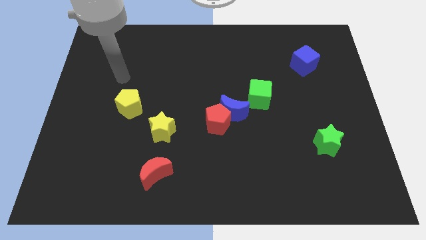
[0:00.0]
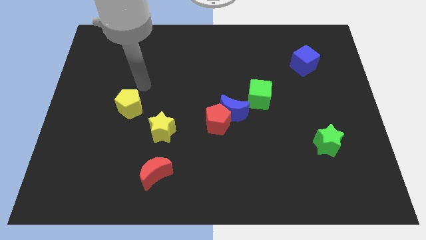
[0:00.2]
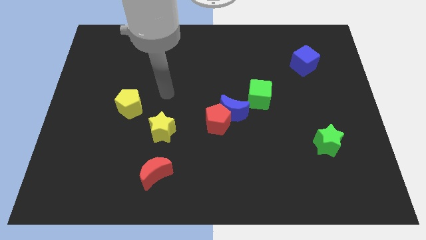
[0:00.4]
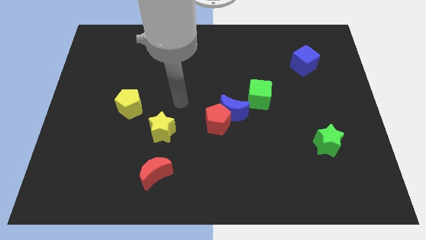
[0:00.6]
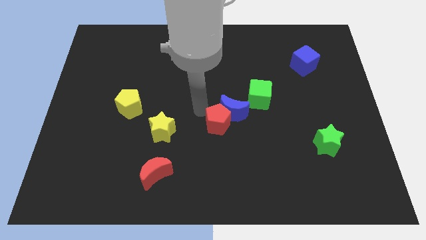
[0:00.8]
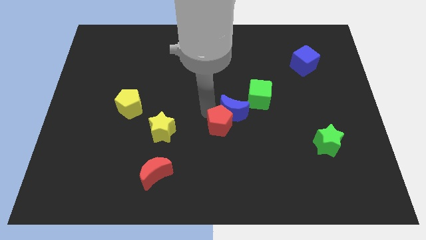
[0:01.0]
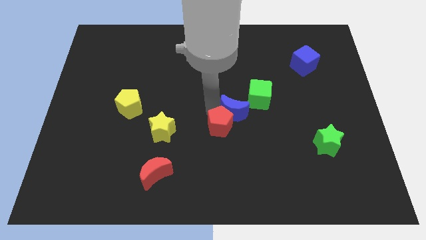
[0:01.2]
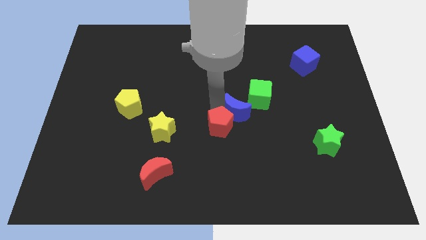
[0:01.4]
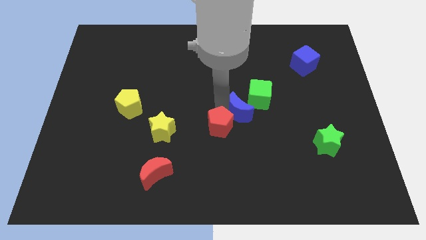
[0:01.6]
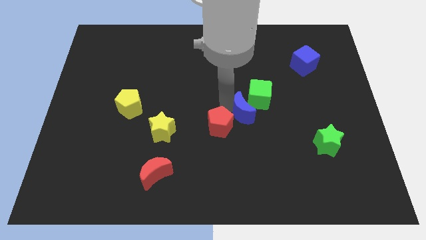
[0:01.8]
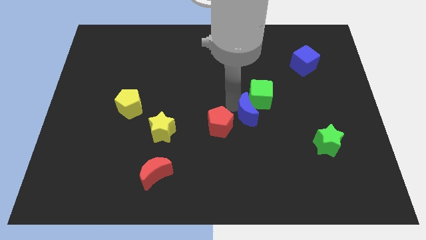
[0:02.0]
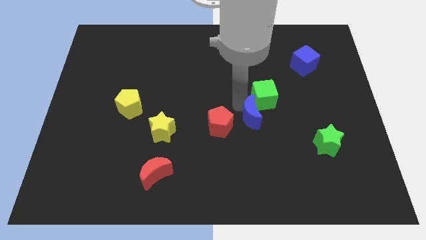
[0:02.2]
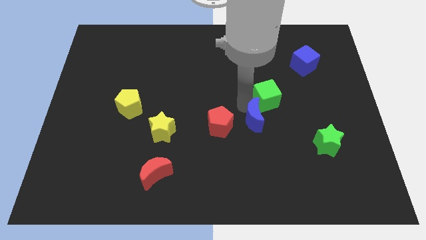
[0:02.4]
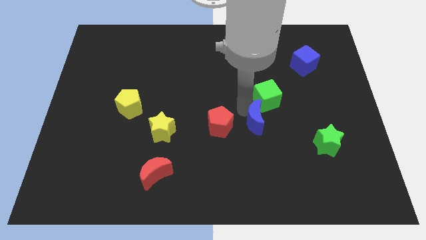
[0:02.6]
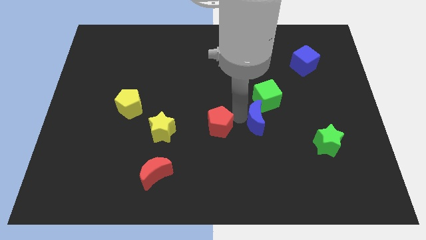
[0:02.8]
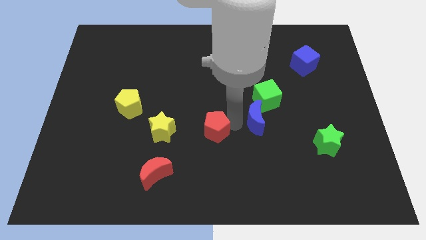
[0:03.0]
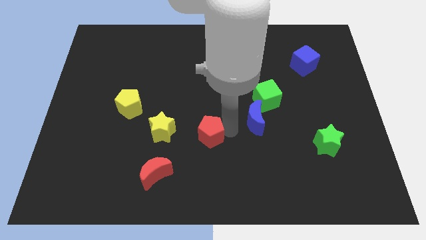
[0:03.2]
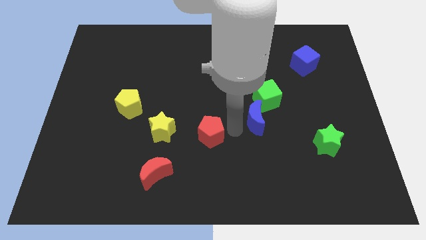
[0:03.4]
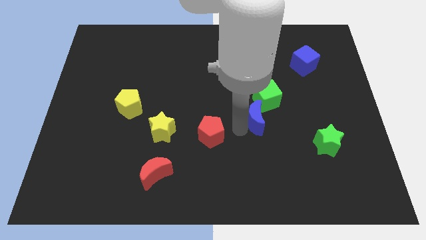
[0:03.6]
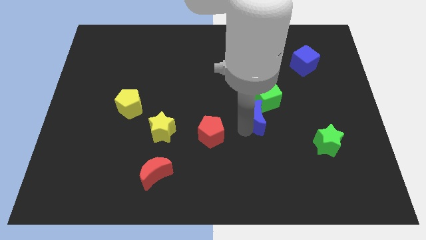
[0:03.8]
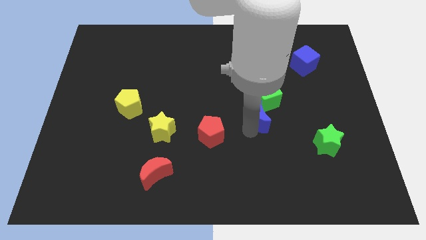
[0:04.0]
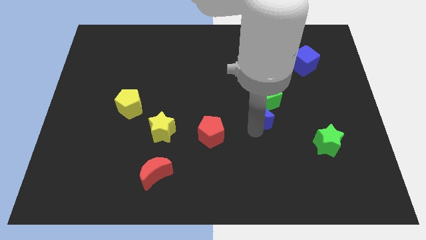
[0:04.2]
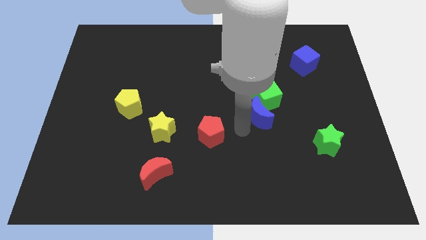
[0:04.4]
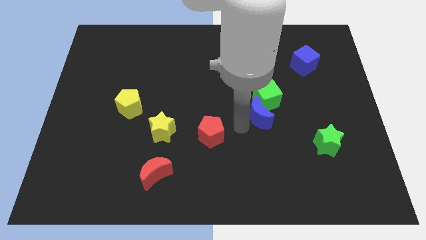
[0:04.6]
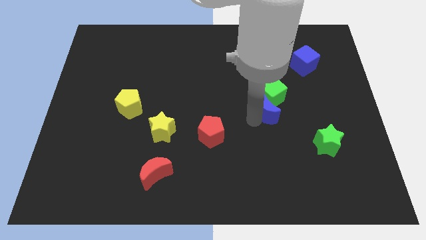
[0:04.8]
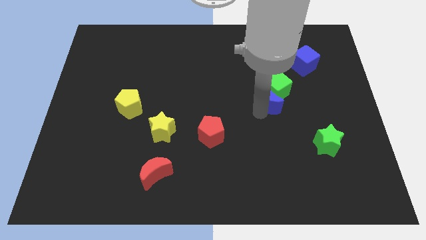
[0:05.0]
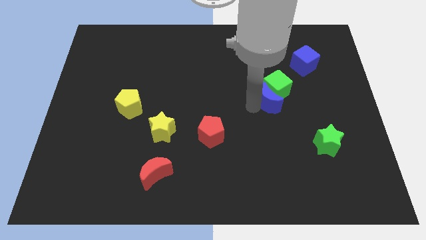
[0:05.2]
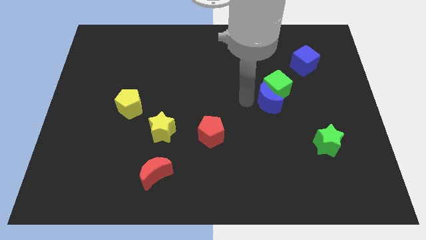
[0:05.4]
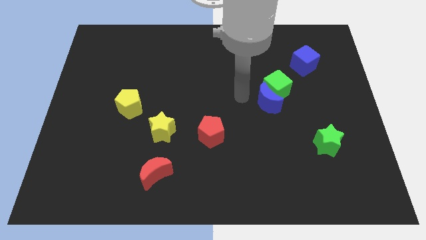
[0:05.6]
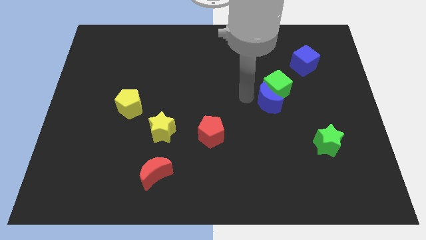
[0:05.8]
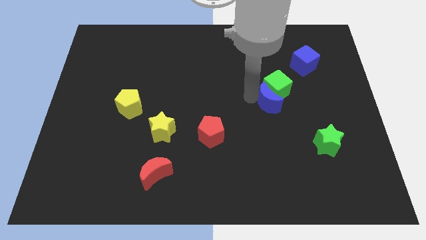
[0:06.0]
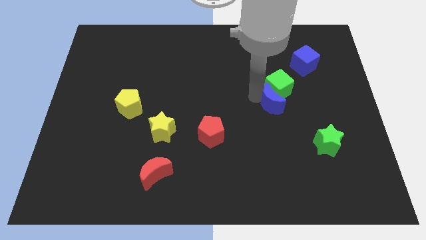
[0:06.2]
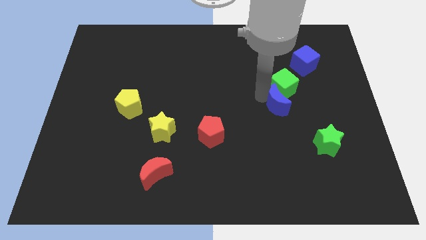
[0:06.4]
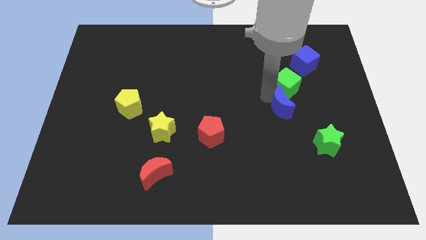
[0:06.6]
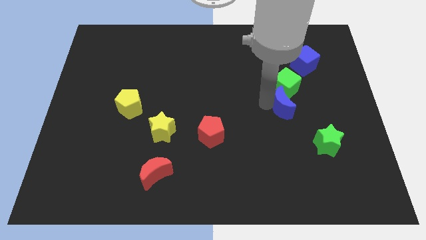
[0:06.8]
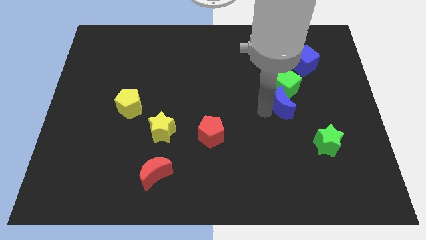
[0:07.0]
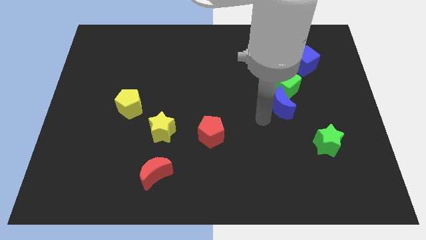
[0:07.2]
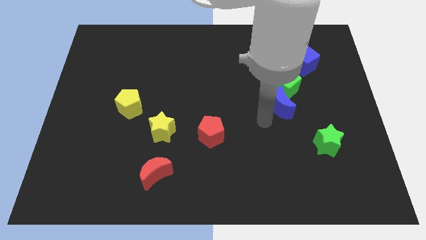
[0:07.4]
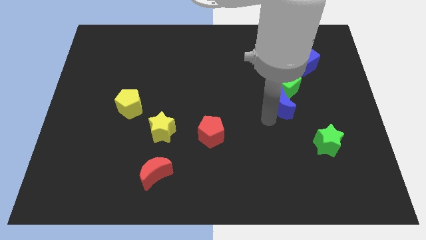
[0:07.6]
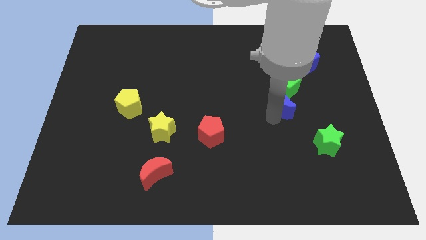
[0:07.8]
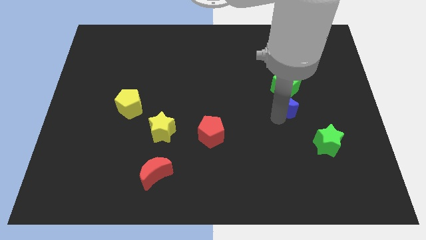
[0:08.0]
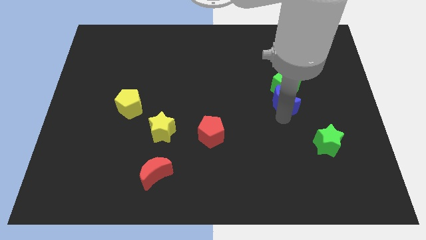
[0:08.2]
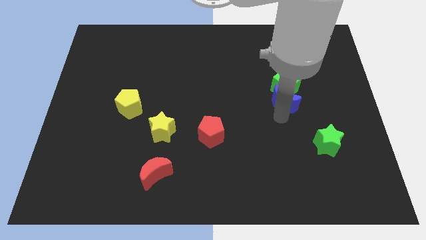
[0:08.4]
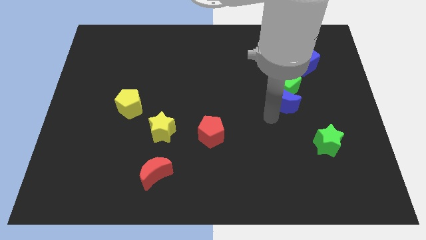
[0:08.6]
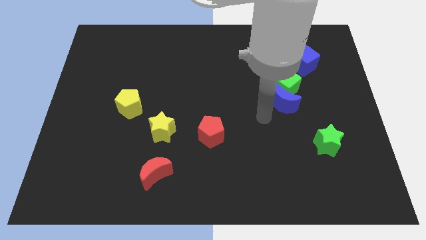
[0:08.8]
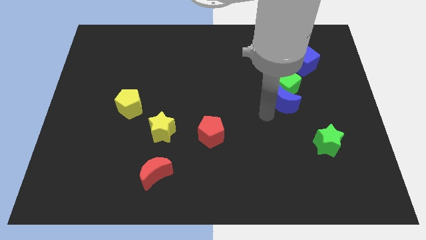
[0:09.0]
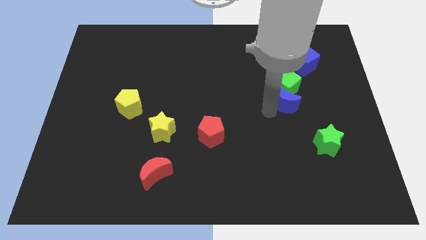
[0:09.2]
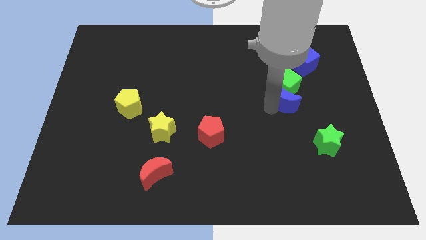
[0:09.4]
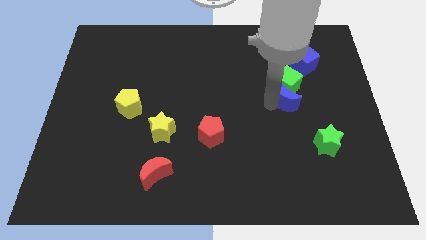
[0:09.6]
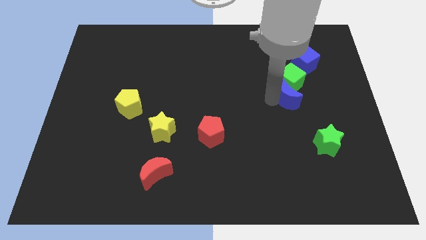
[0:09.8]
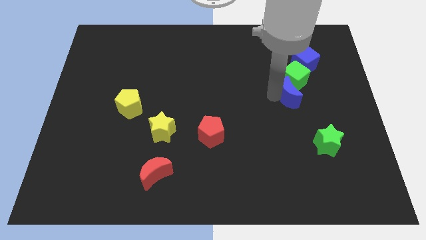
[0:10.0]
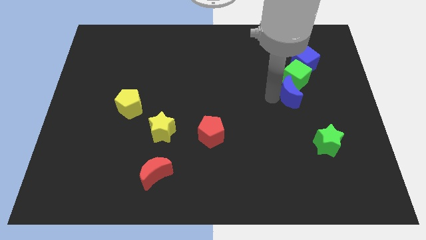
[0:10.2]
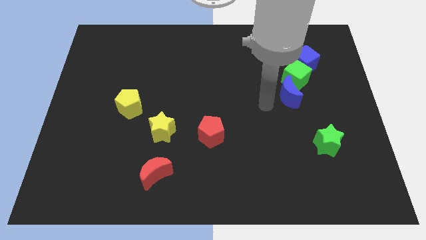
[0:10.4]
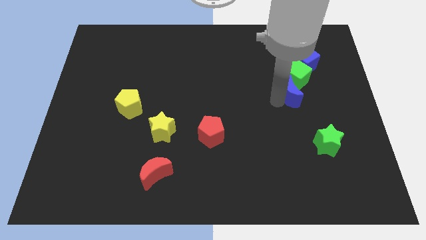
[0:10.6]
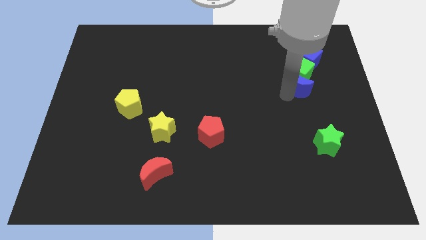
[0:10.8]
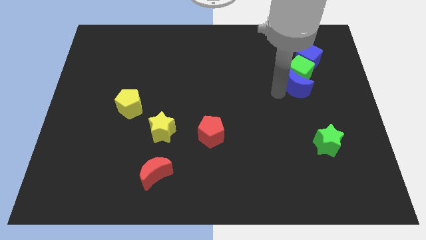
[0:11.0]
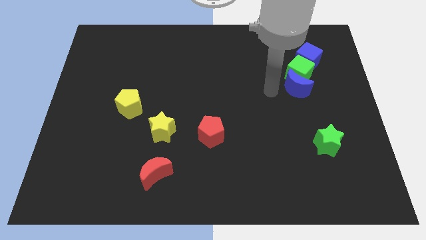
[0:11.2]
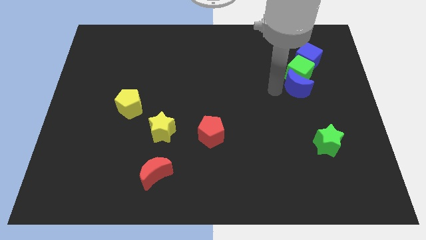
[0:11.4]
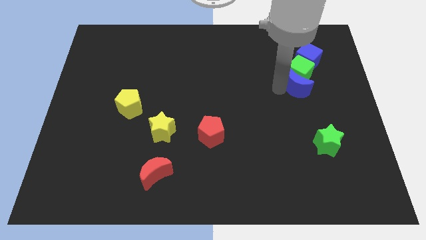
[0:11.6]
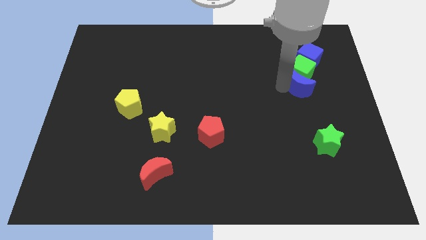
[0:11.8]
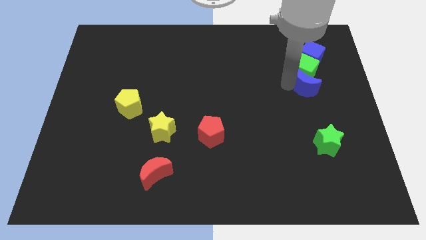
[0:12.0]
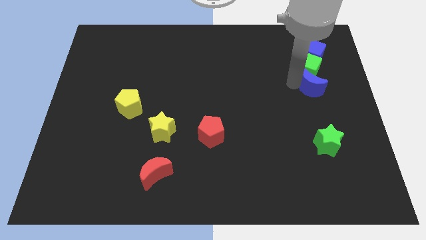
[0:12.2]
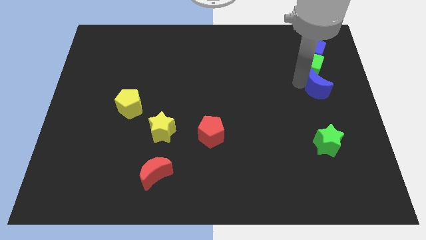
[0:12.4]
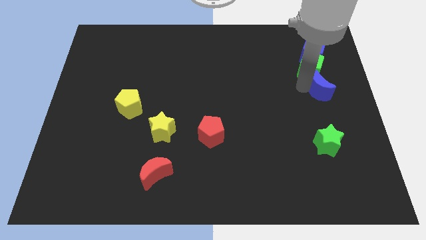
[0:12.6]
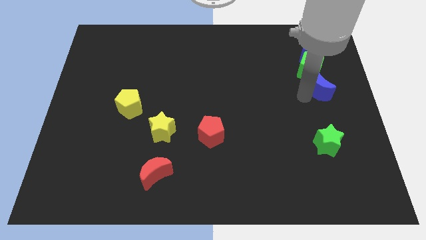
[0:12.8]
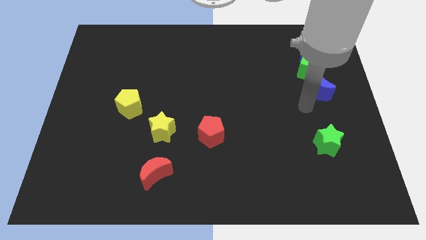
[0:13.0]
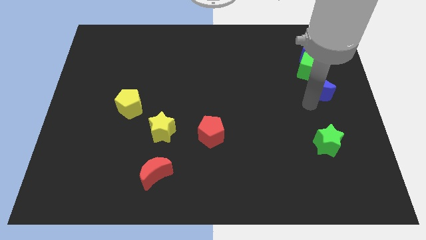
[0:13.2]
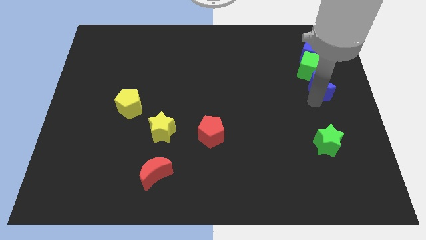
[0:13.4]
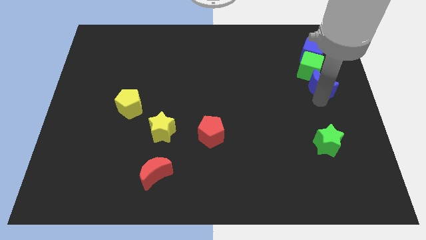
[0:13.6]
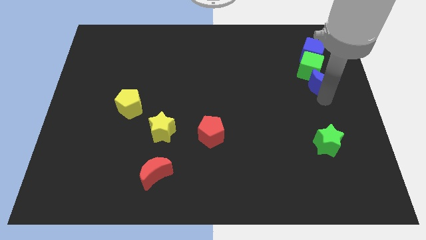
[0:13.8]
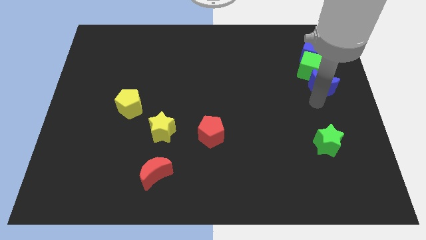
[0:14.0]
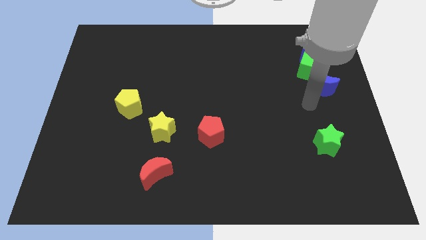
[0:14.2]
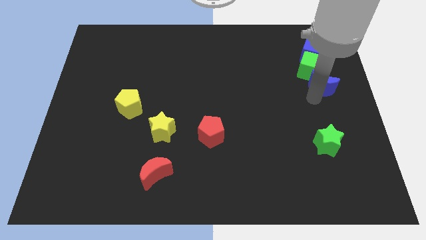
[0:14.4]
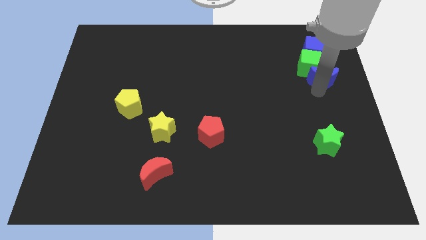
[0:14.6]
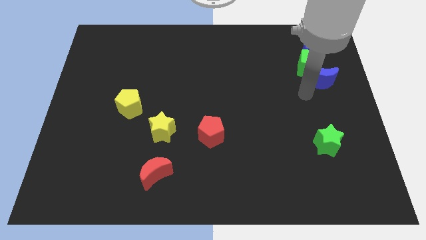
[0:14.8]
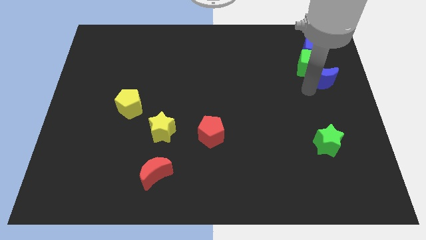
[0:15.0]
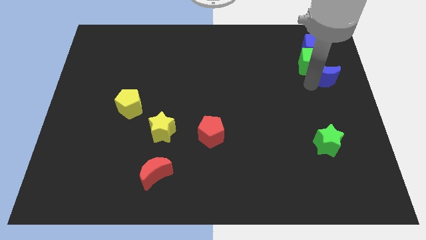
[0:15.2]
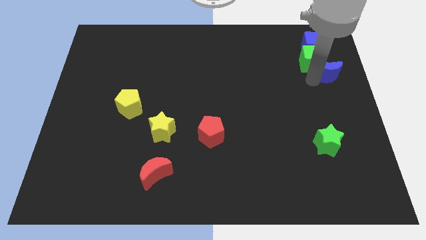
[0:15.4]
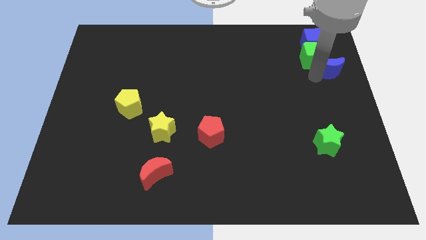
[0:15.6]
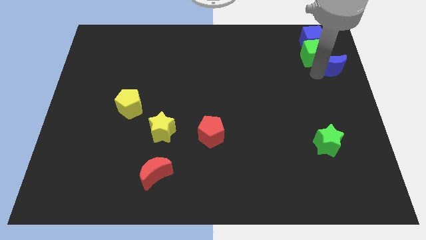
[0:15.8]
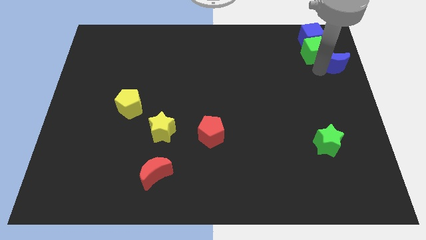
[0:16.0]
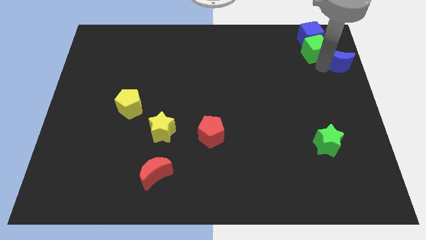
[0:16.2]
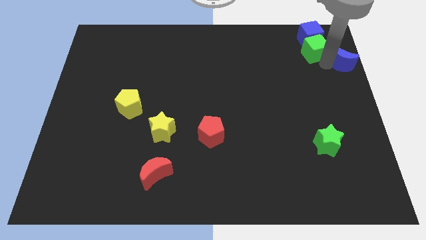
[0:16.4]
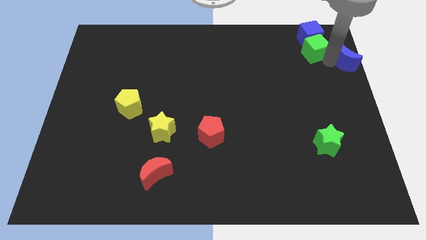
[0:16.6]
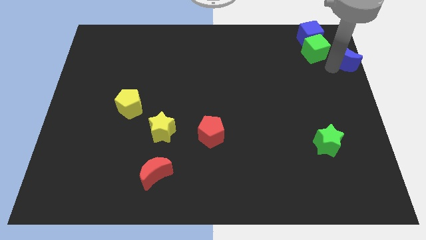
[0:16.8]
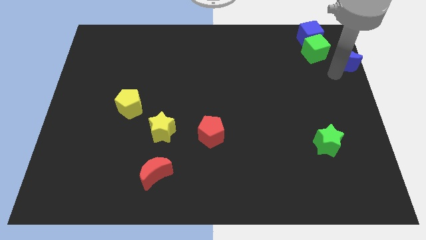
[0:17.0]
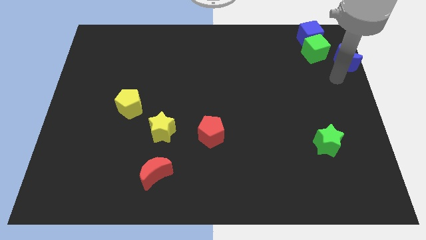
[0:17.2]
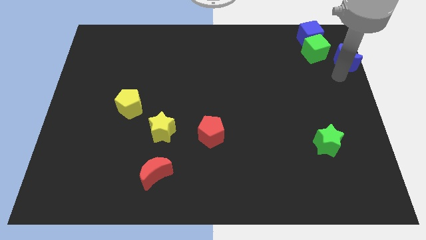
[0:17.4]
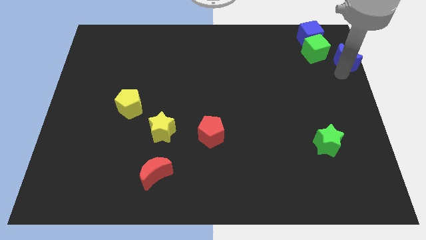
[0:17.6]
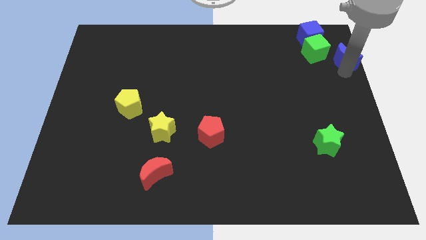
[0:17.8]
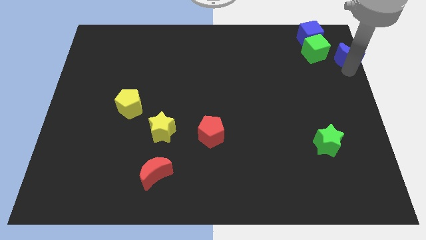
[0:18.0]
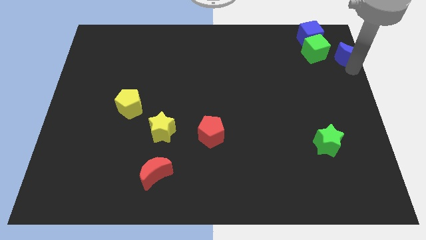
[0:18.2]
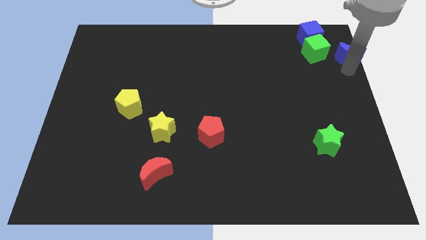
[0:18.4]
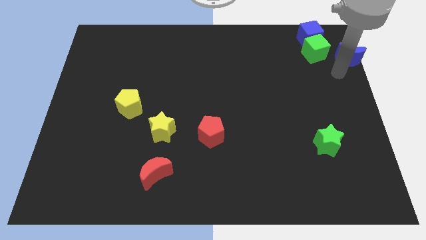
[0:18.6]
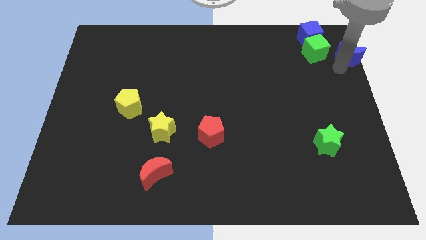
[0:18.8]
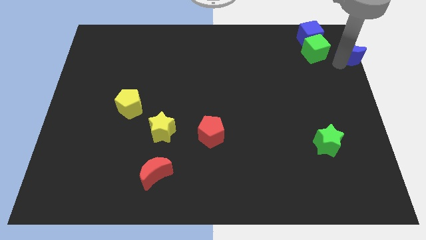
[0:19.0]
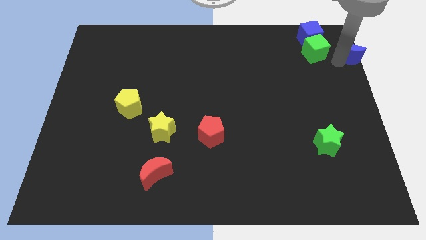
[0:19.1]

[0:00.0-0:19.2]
put the blue moon to the upper right corner
